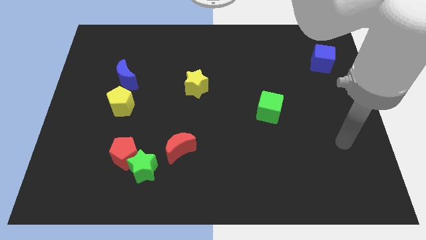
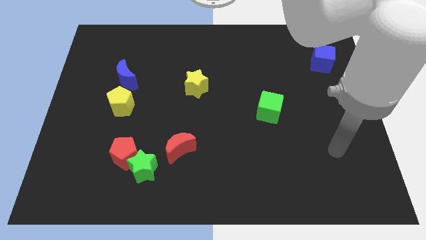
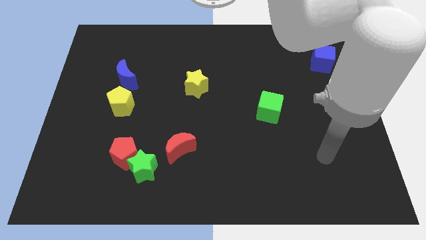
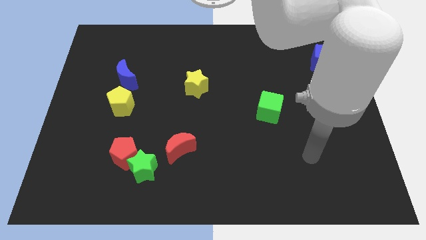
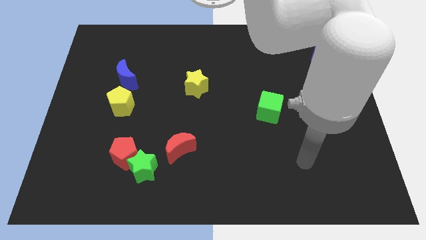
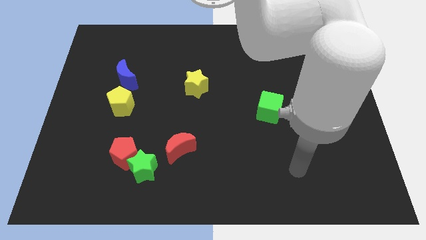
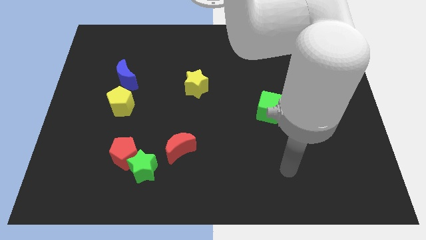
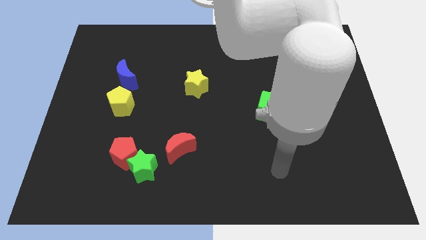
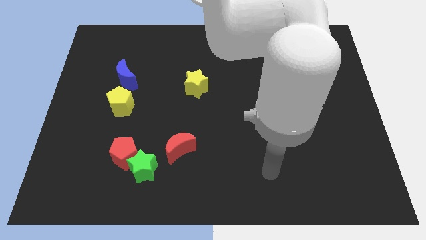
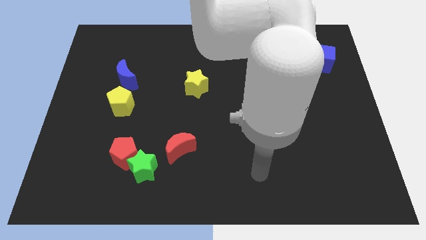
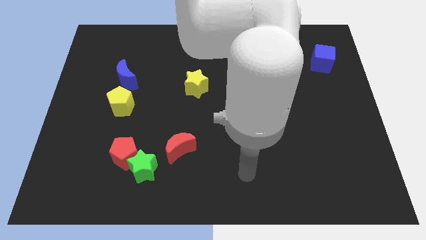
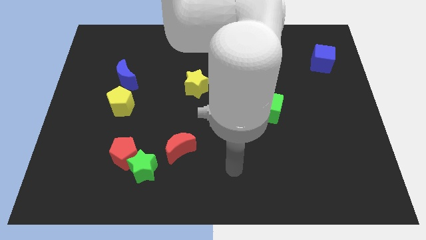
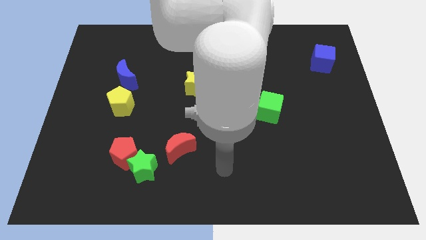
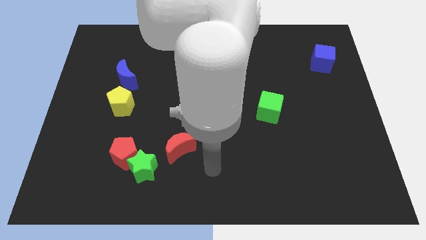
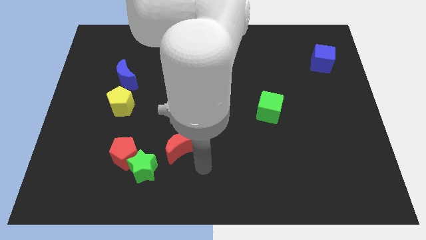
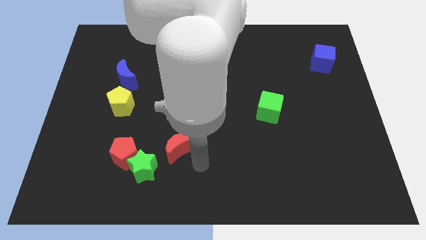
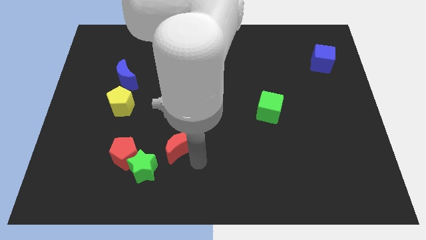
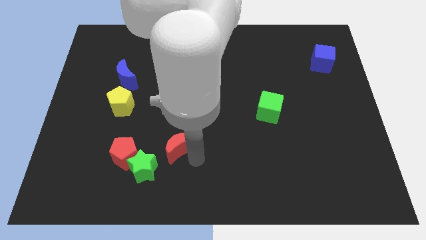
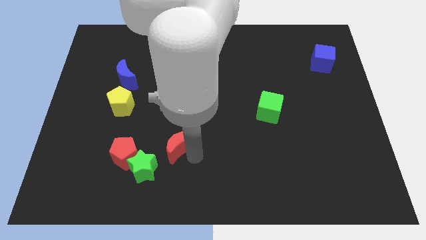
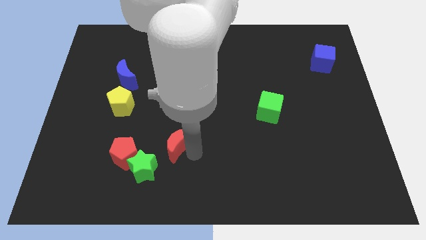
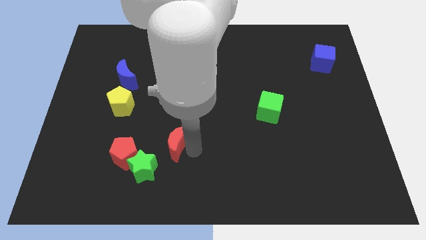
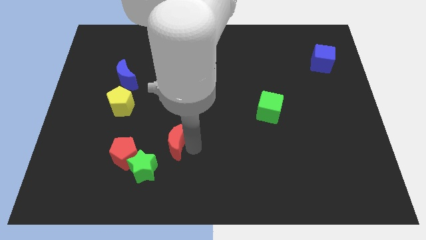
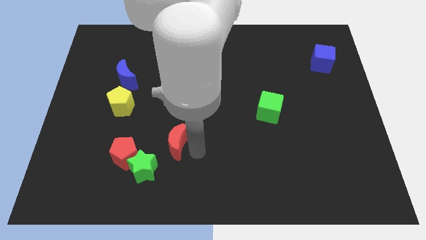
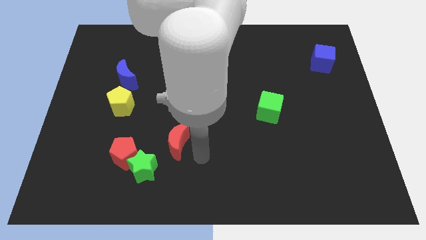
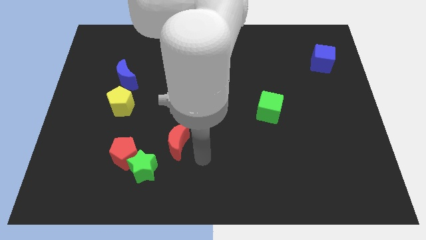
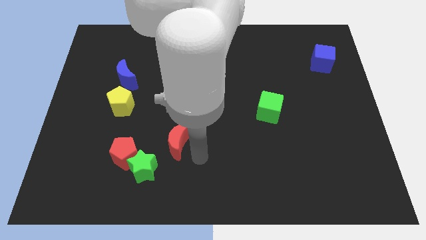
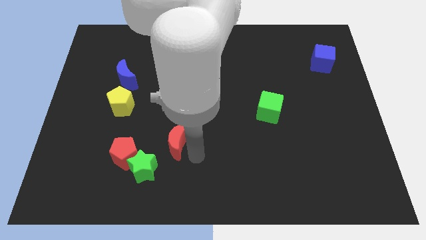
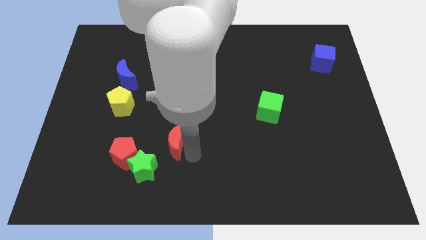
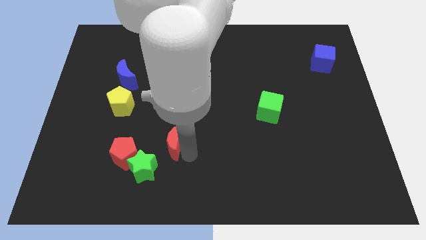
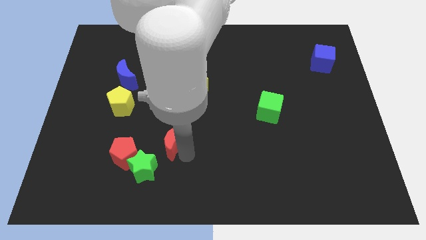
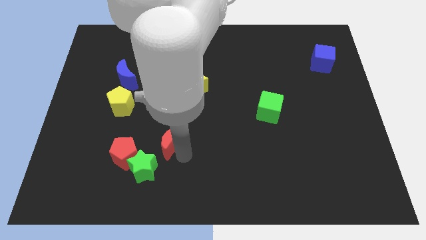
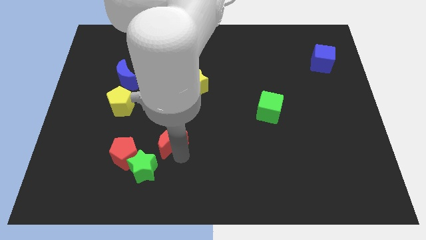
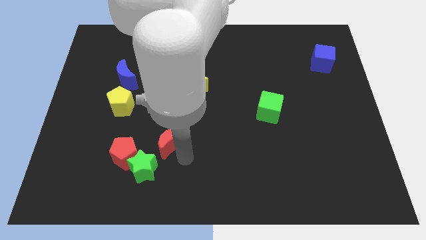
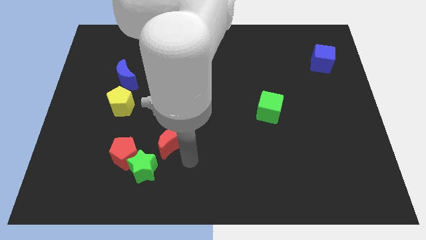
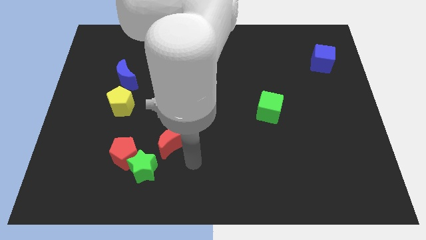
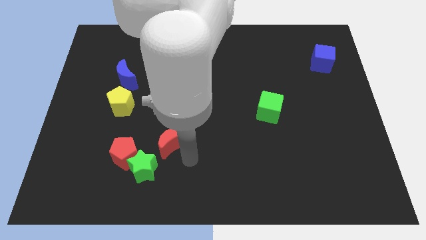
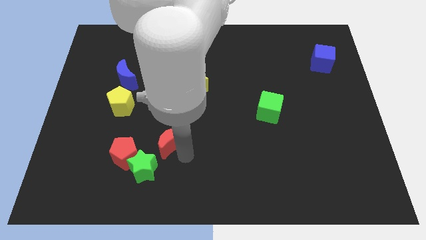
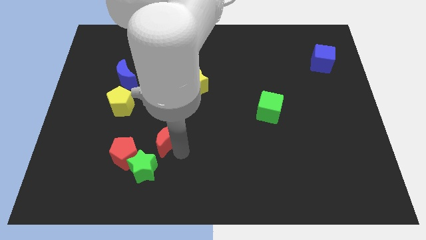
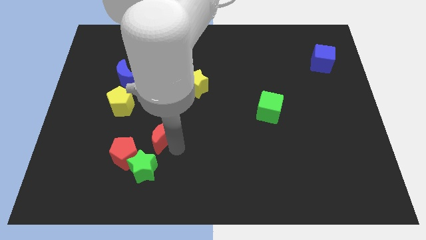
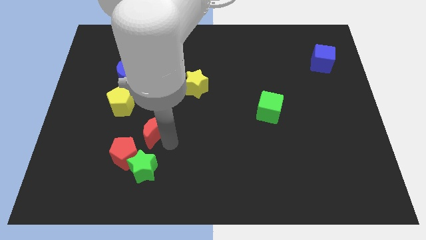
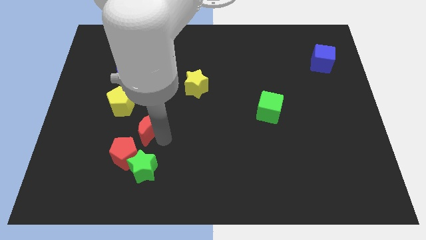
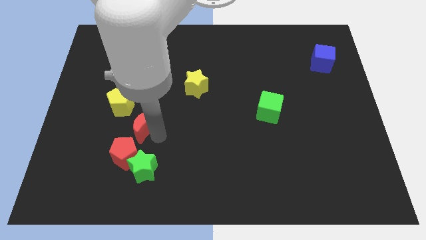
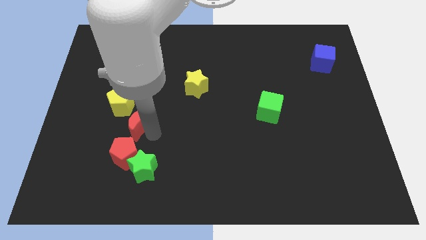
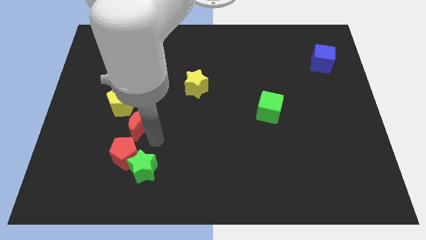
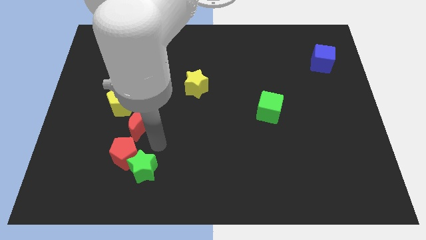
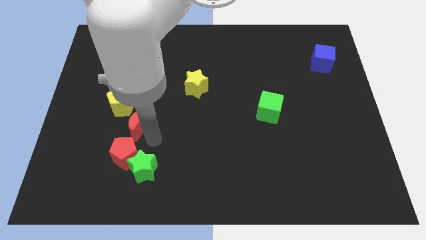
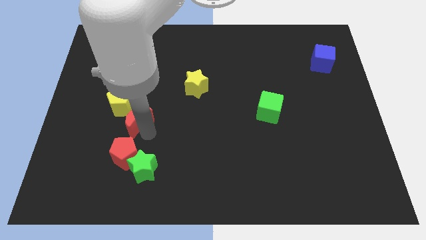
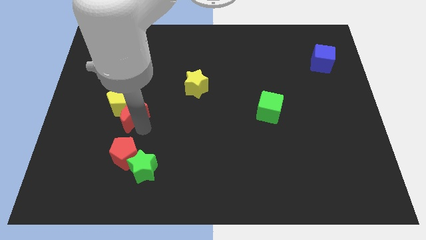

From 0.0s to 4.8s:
slide the red moon to the yellow pentagon

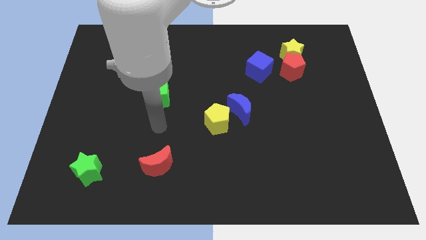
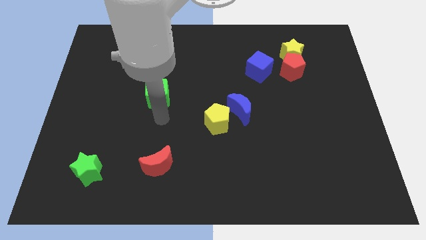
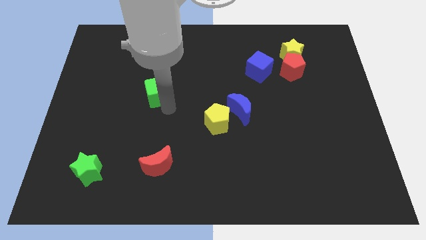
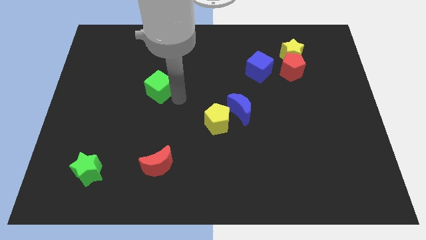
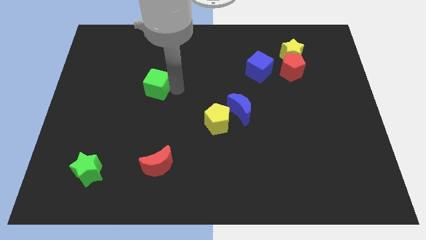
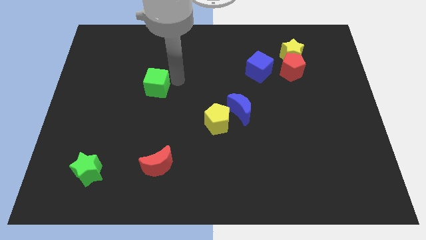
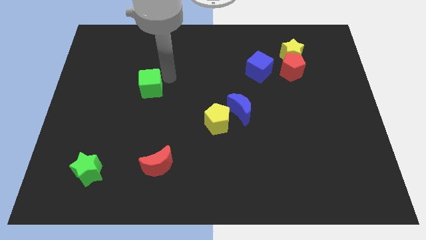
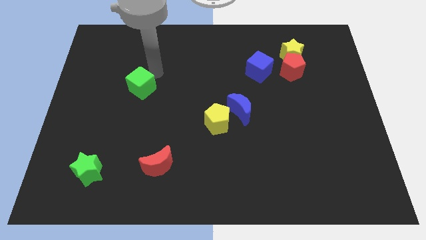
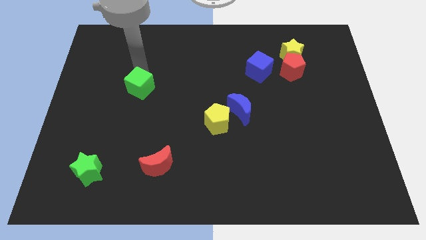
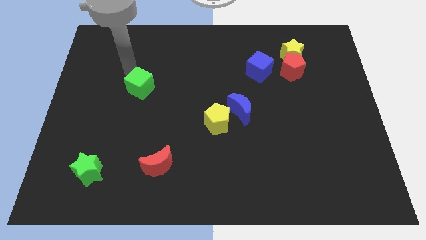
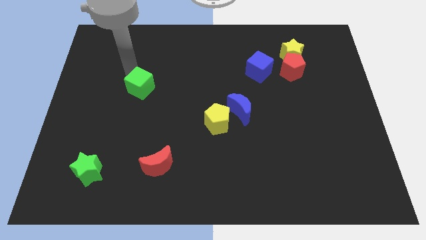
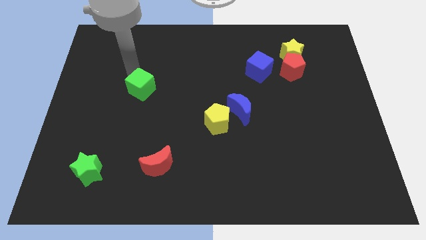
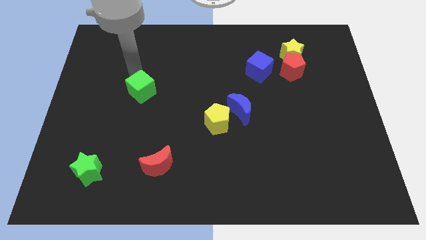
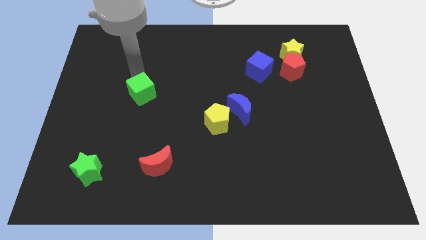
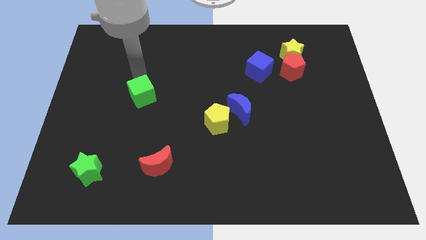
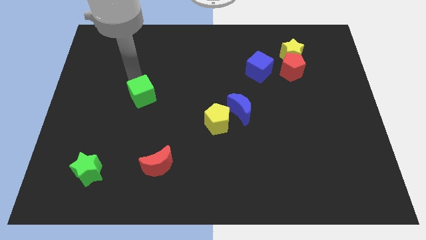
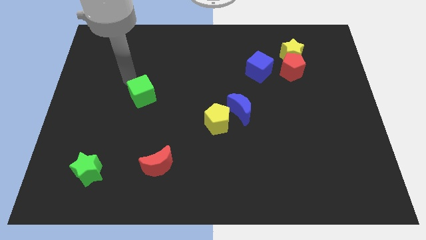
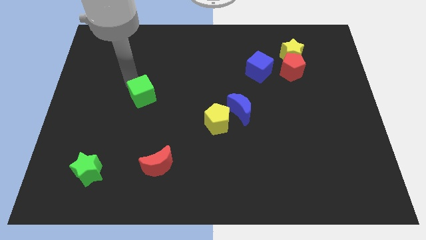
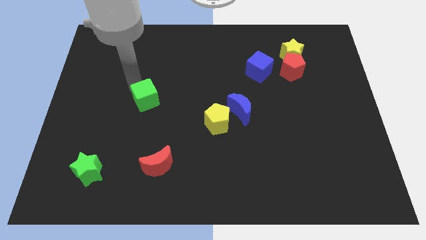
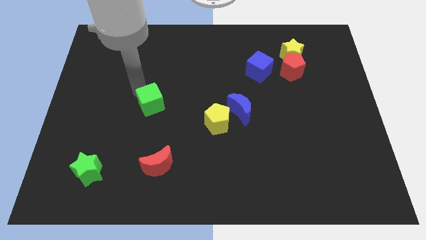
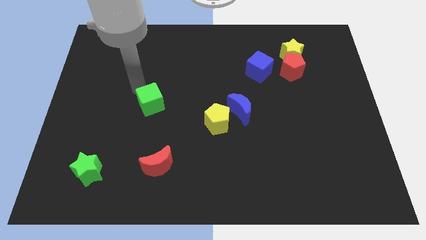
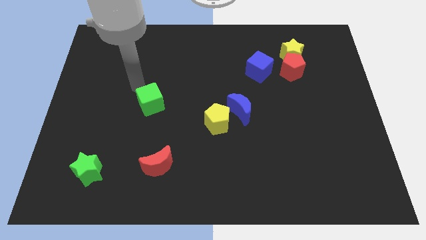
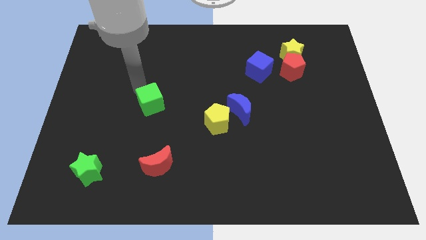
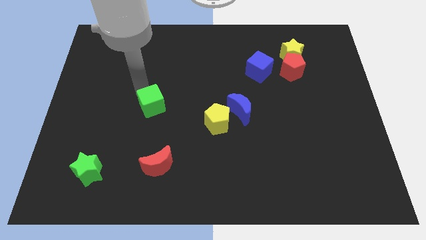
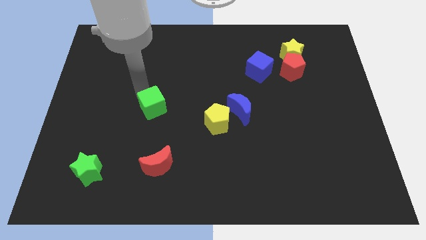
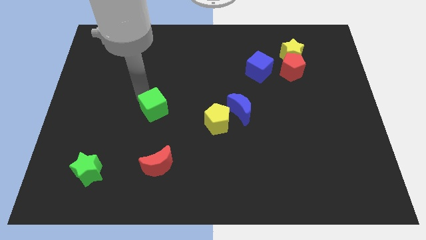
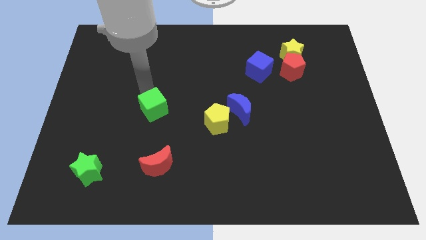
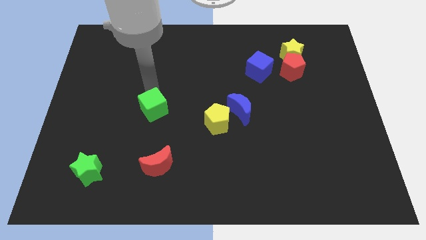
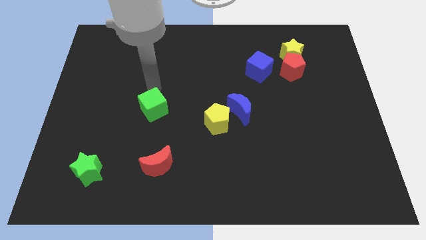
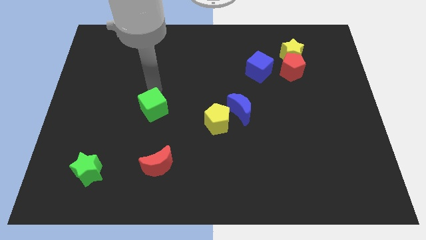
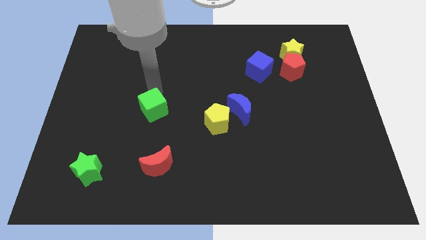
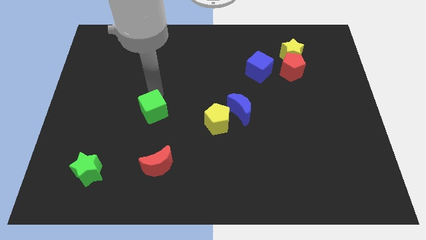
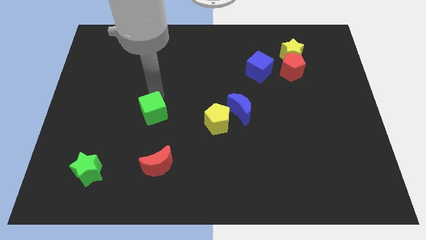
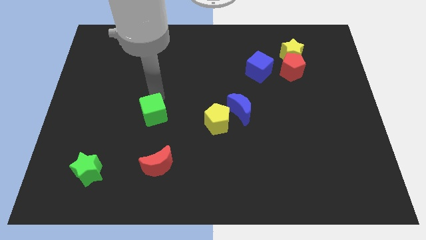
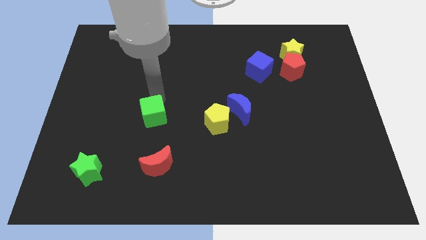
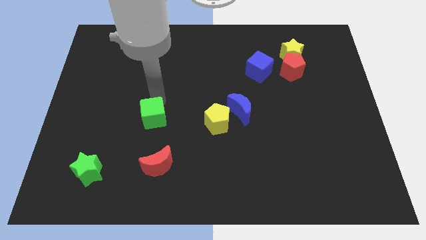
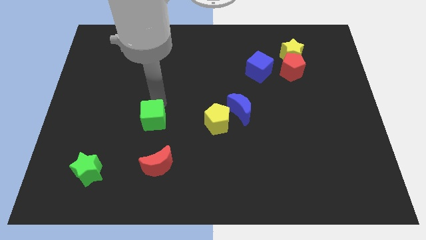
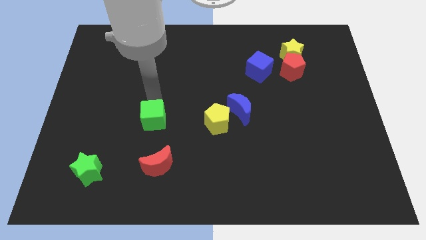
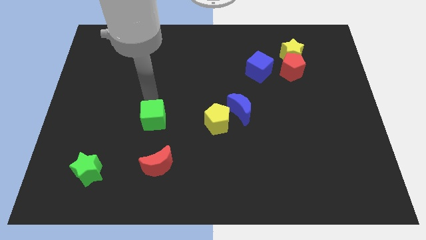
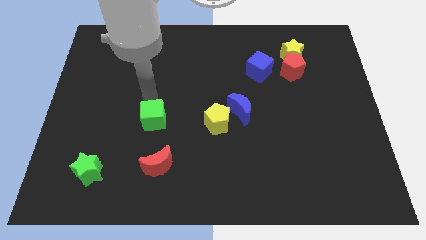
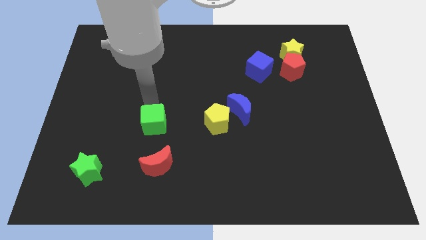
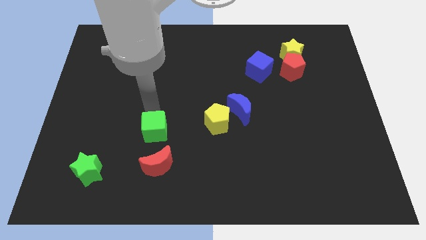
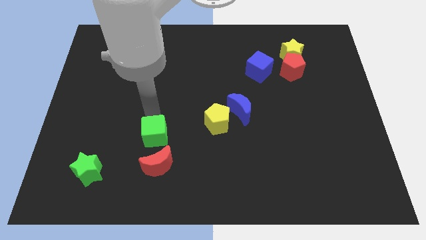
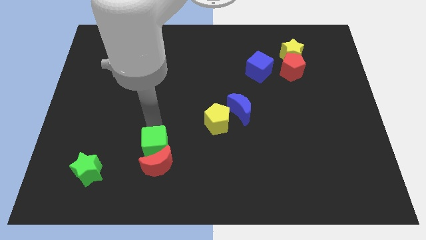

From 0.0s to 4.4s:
move the green cube close to the red moon
